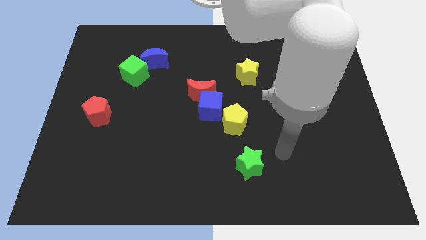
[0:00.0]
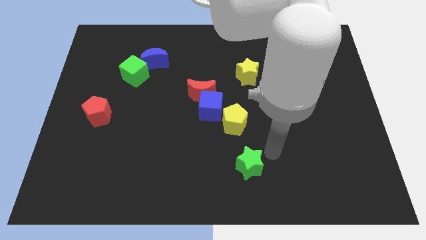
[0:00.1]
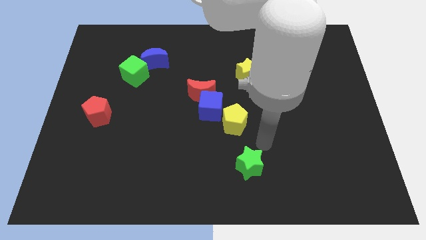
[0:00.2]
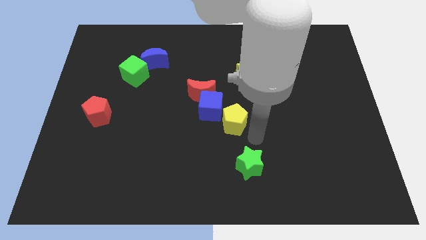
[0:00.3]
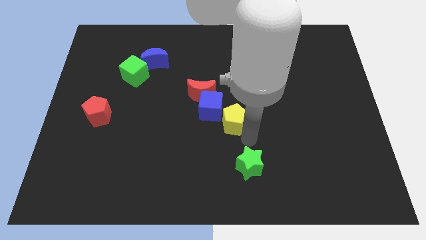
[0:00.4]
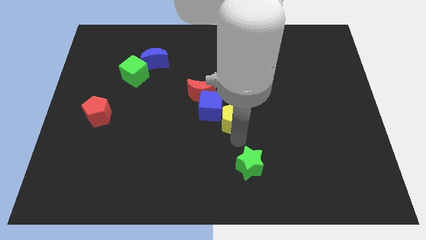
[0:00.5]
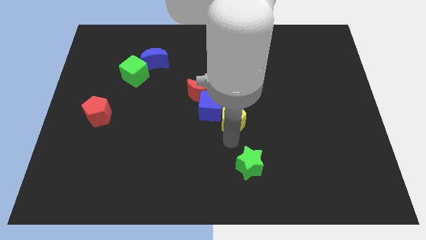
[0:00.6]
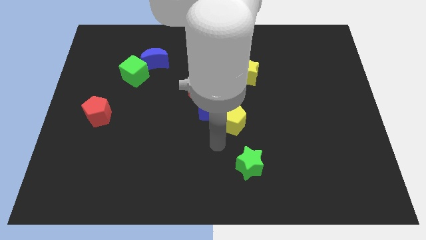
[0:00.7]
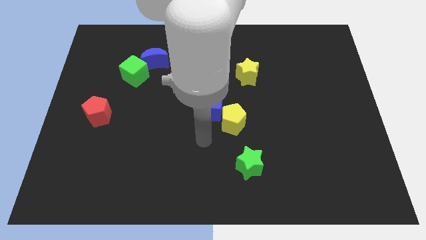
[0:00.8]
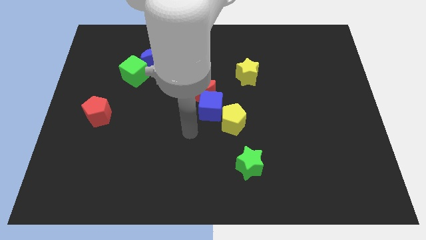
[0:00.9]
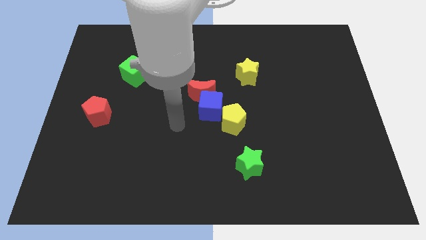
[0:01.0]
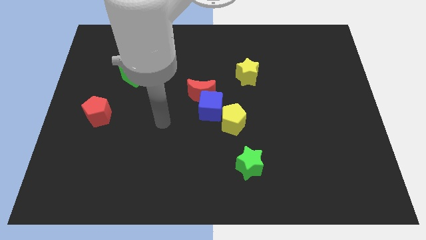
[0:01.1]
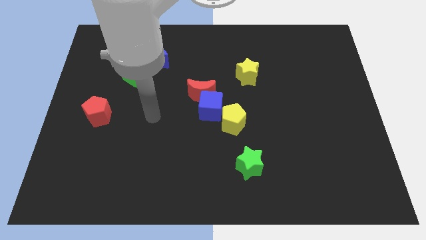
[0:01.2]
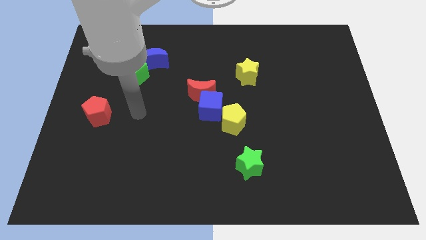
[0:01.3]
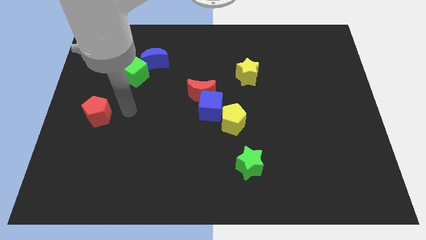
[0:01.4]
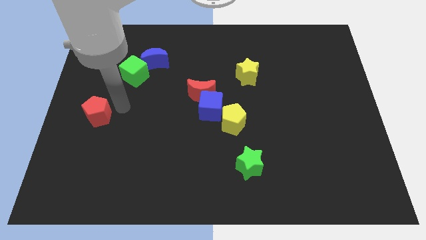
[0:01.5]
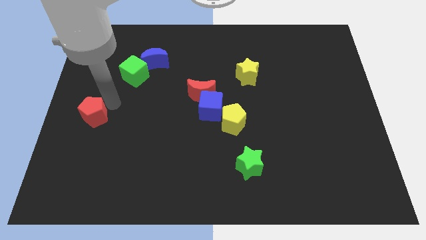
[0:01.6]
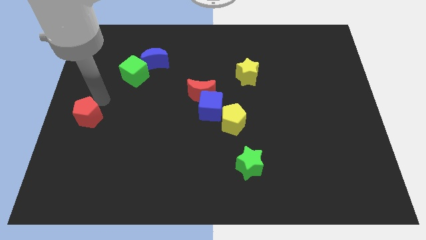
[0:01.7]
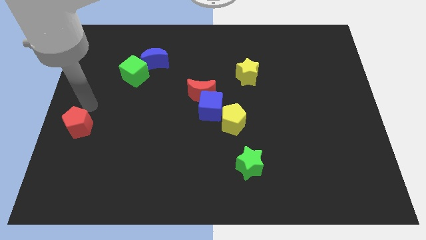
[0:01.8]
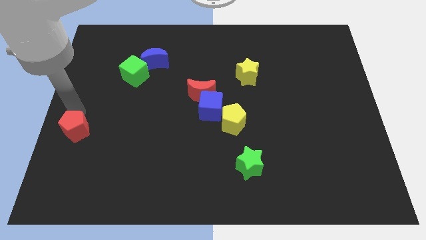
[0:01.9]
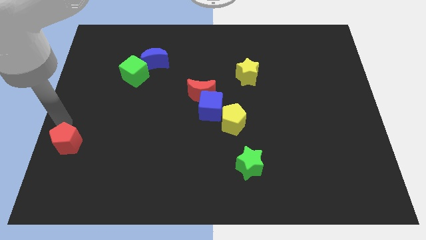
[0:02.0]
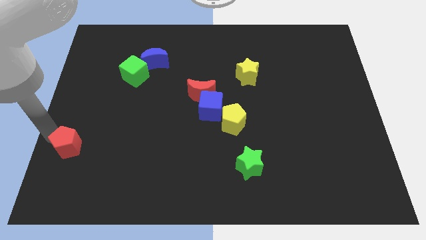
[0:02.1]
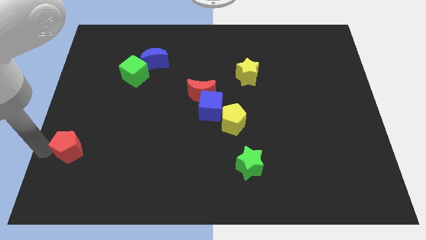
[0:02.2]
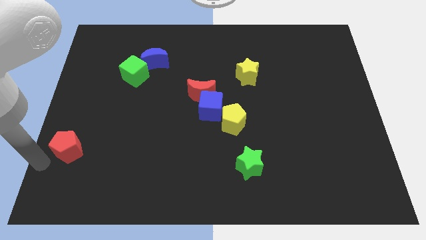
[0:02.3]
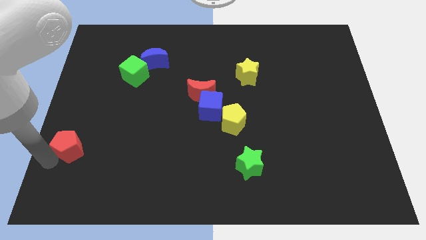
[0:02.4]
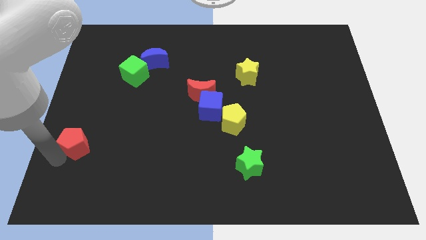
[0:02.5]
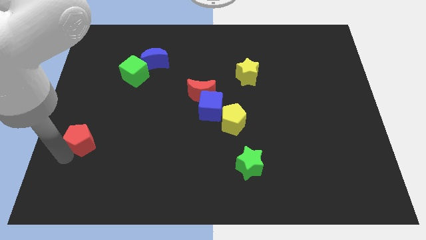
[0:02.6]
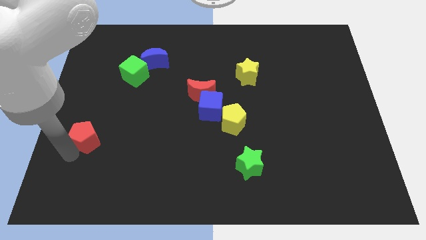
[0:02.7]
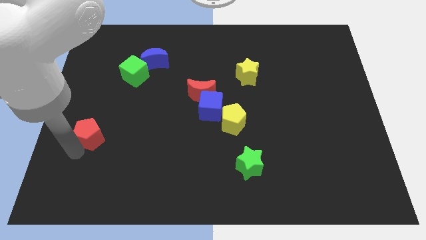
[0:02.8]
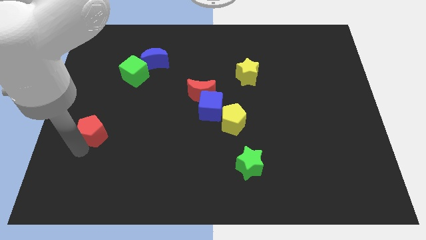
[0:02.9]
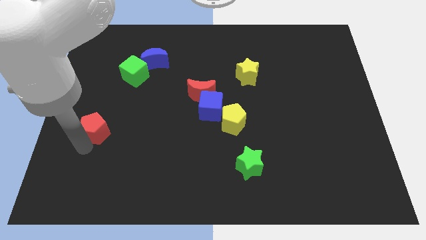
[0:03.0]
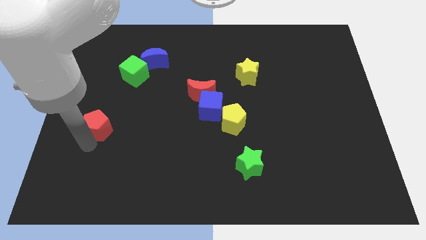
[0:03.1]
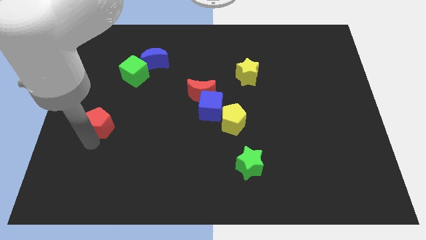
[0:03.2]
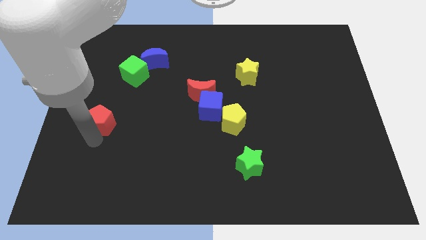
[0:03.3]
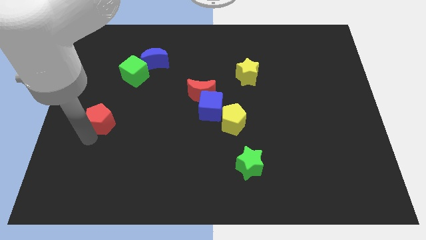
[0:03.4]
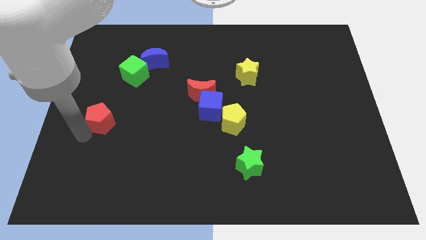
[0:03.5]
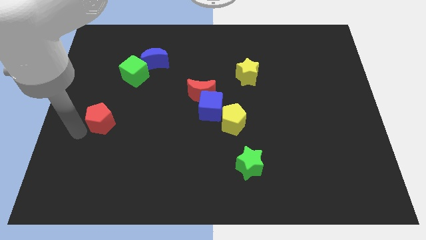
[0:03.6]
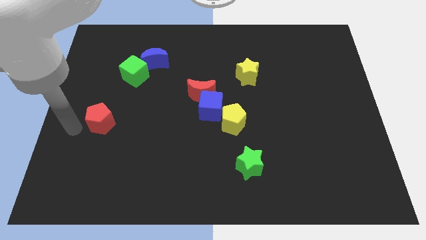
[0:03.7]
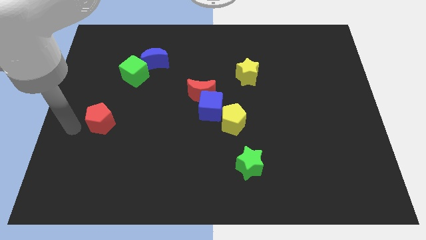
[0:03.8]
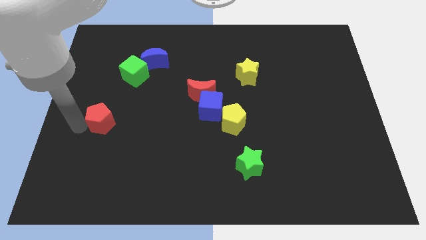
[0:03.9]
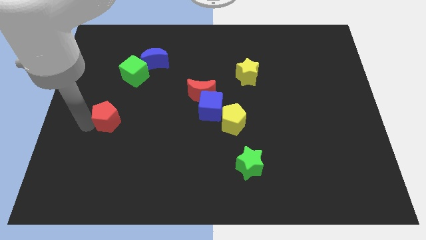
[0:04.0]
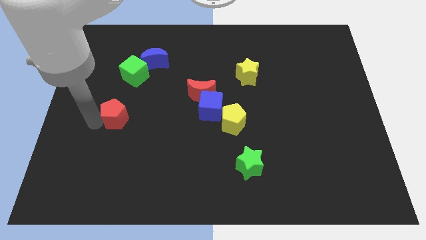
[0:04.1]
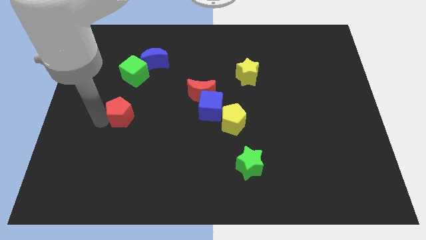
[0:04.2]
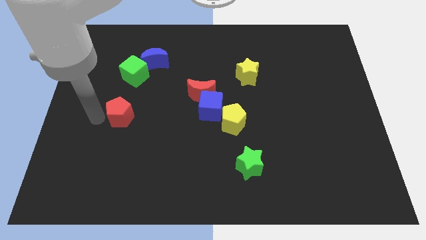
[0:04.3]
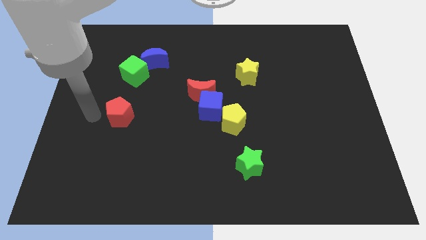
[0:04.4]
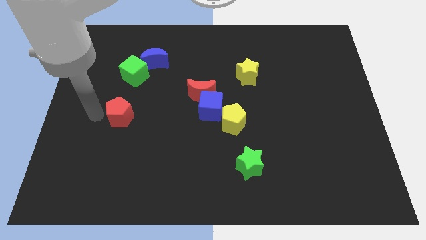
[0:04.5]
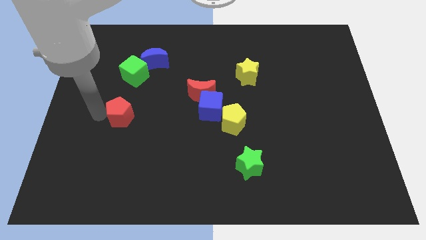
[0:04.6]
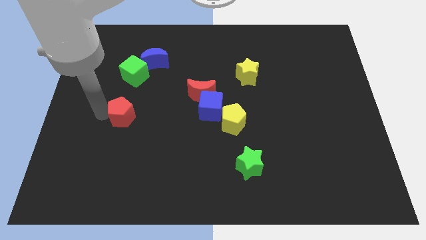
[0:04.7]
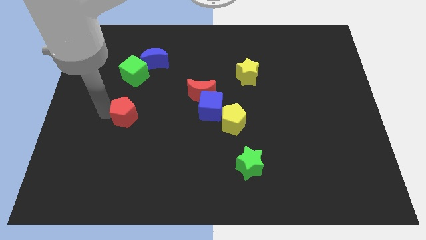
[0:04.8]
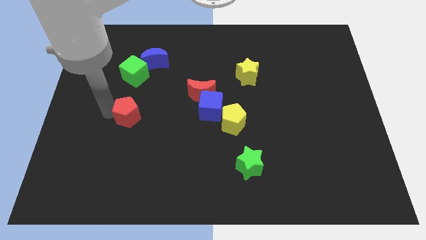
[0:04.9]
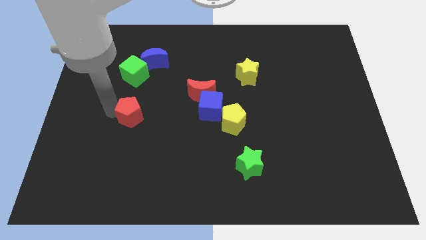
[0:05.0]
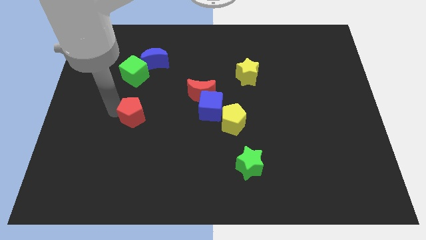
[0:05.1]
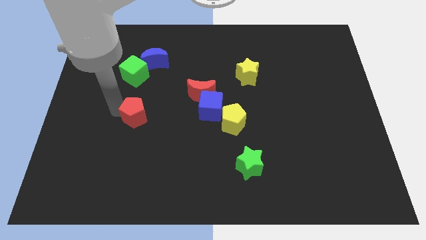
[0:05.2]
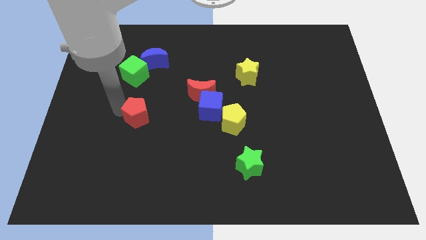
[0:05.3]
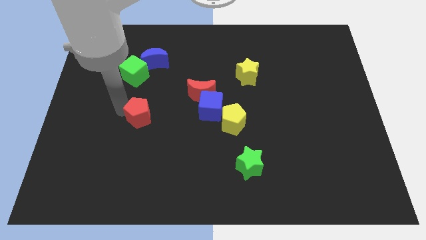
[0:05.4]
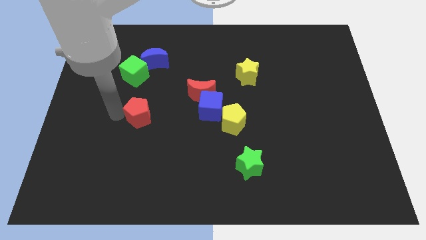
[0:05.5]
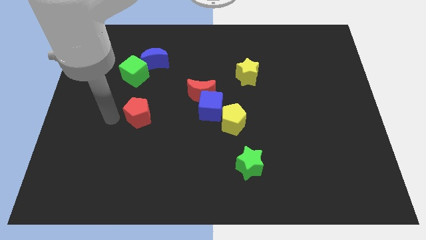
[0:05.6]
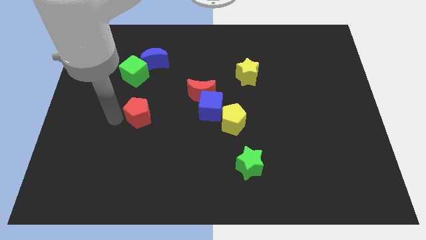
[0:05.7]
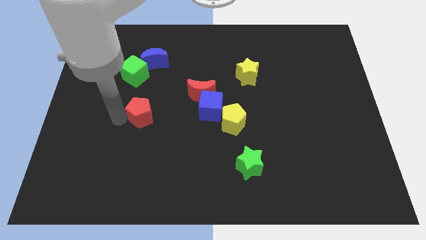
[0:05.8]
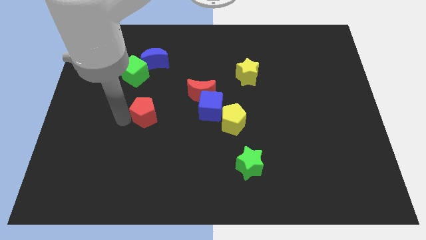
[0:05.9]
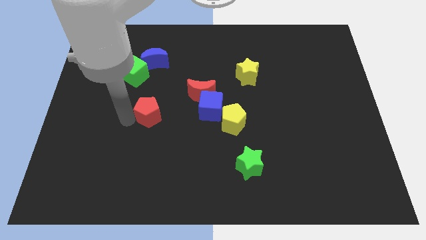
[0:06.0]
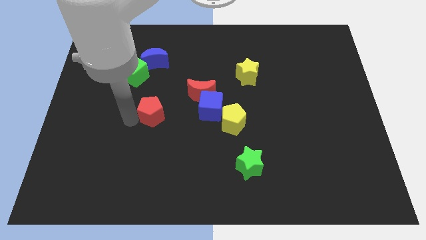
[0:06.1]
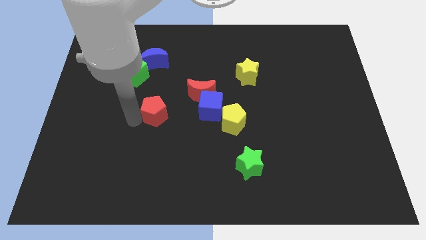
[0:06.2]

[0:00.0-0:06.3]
slide the red pentagon to the bottom left of the red moon

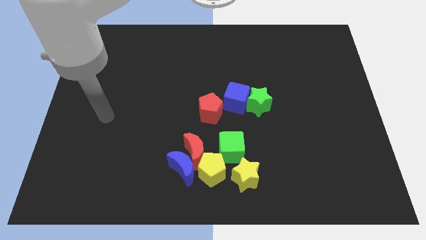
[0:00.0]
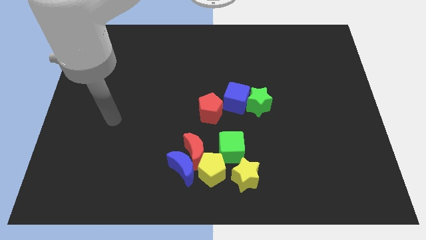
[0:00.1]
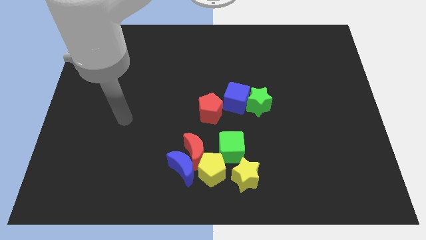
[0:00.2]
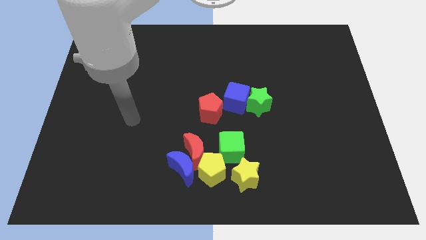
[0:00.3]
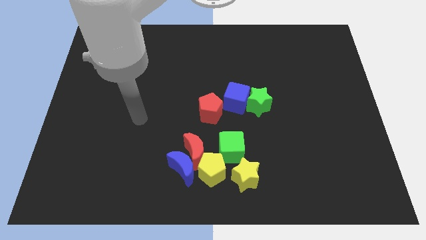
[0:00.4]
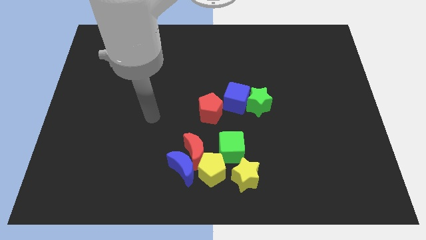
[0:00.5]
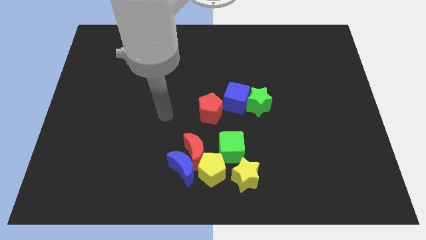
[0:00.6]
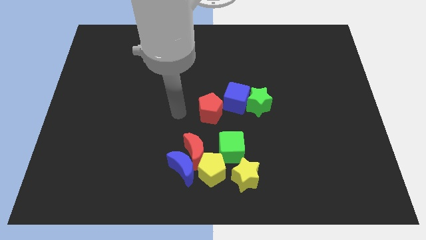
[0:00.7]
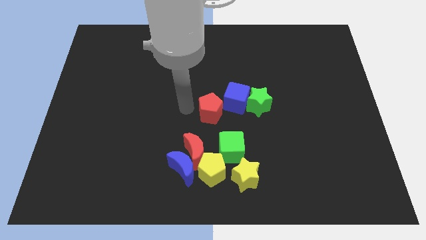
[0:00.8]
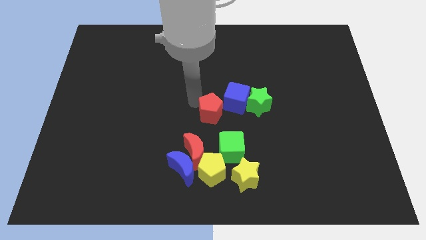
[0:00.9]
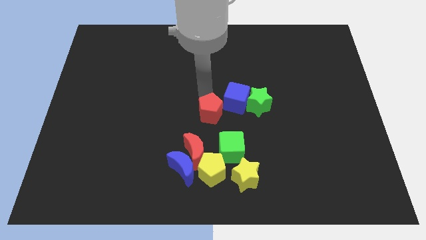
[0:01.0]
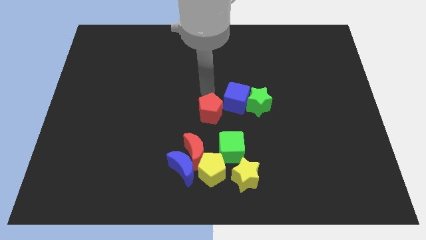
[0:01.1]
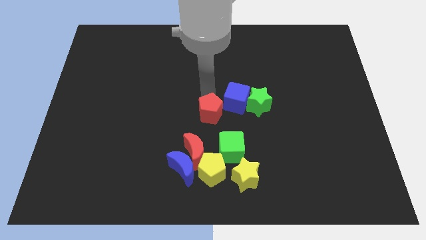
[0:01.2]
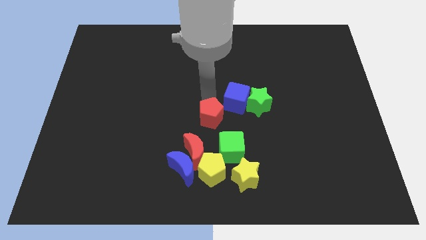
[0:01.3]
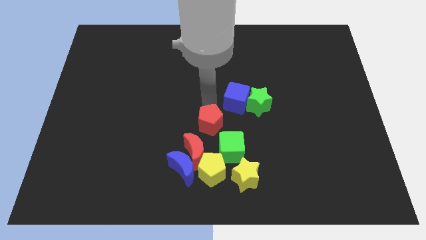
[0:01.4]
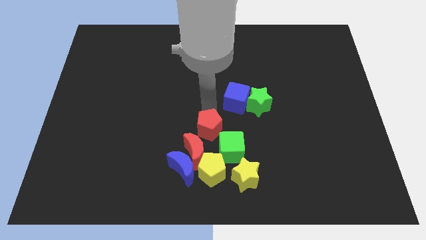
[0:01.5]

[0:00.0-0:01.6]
move the red pentagon to the top right side of the blue moon
